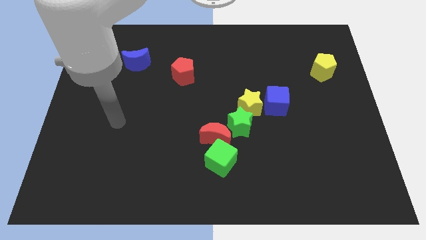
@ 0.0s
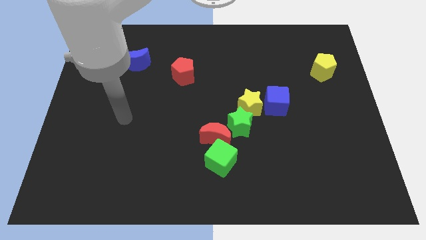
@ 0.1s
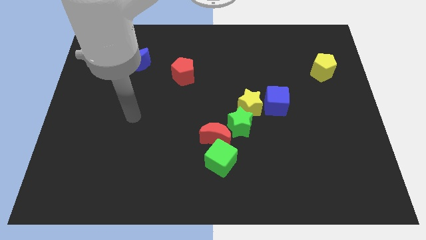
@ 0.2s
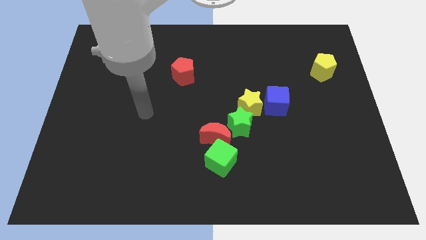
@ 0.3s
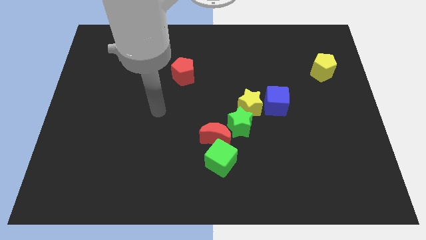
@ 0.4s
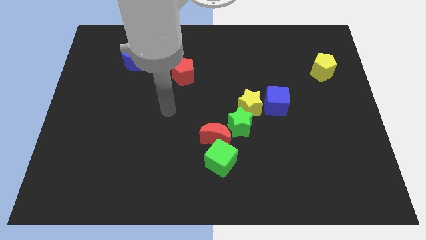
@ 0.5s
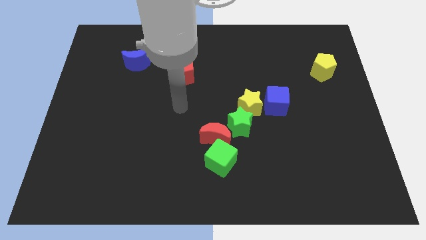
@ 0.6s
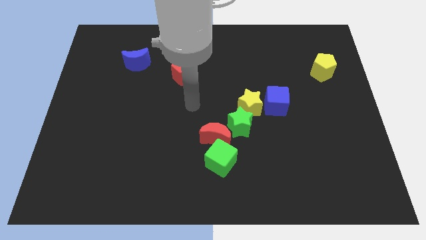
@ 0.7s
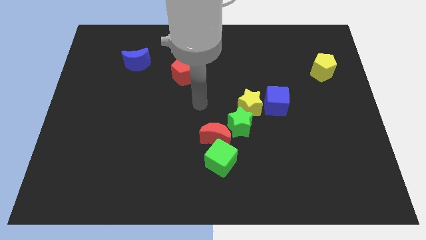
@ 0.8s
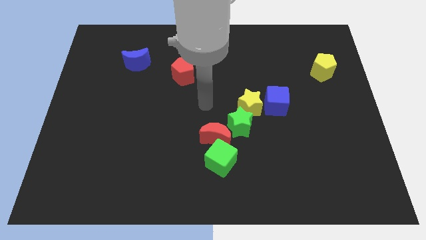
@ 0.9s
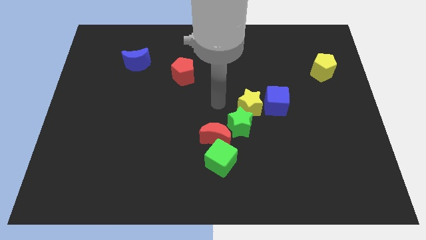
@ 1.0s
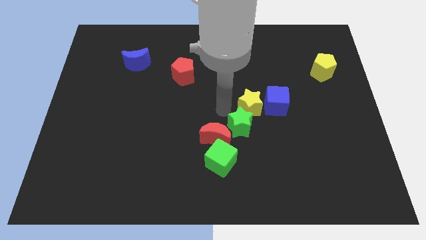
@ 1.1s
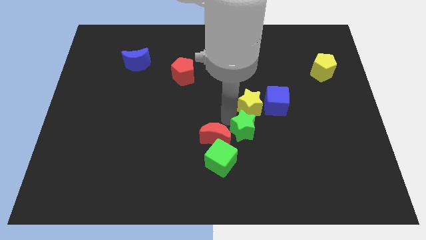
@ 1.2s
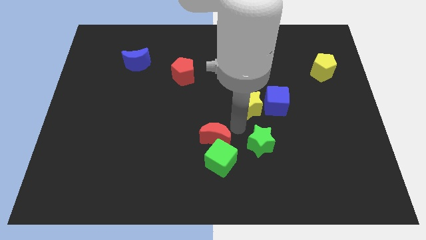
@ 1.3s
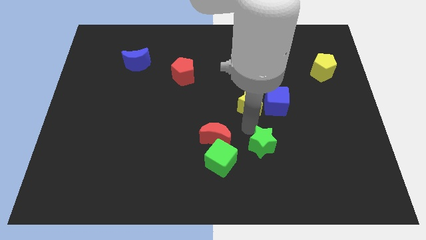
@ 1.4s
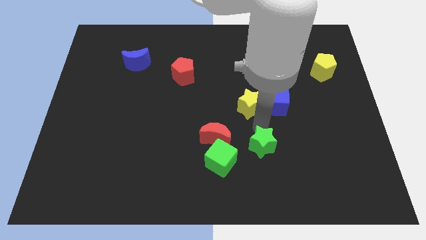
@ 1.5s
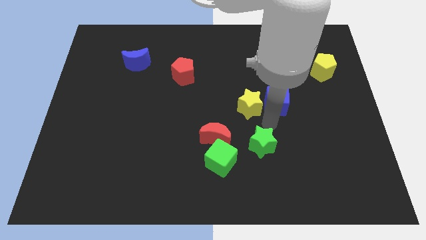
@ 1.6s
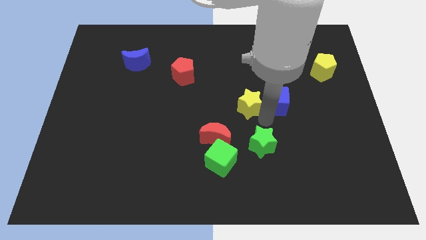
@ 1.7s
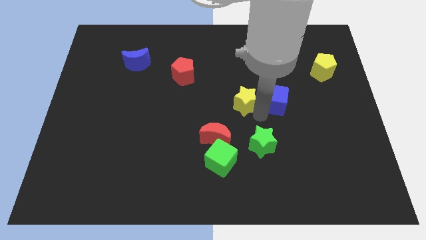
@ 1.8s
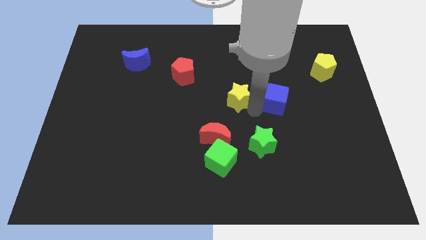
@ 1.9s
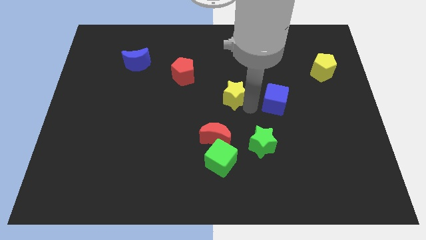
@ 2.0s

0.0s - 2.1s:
pull the yellow star apart from the green star and blue cube

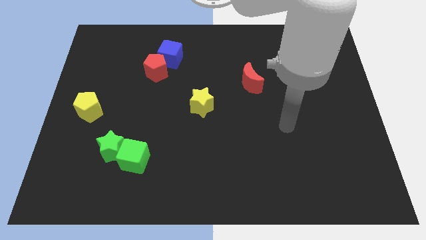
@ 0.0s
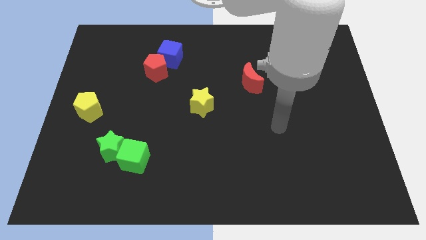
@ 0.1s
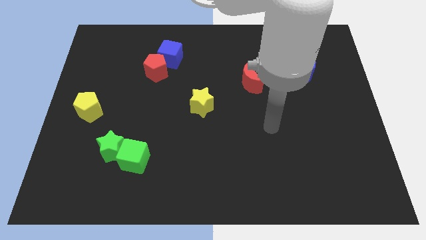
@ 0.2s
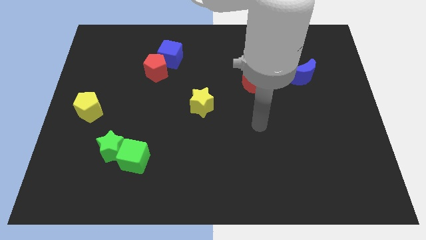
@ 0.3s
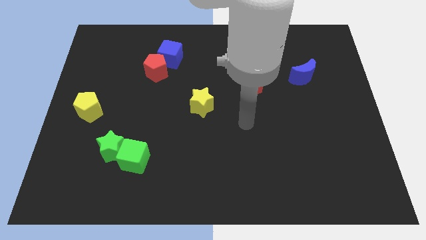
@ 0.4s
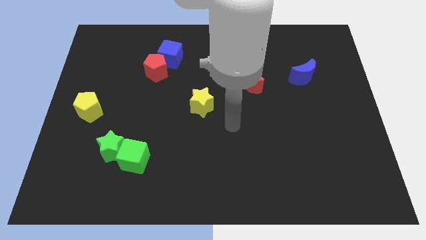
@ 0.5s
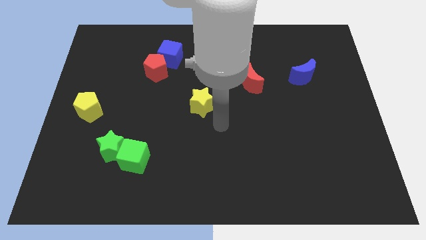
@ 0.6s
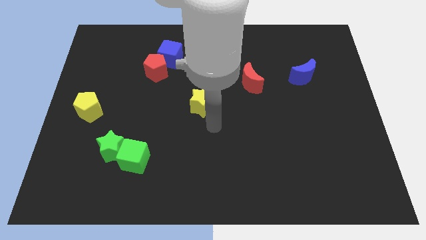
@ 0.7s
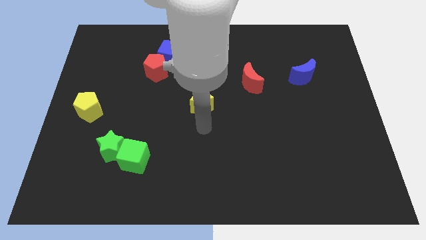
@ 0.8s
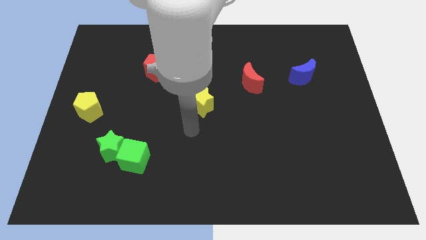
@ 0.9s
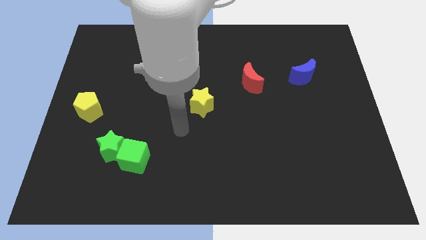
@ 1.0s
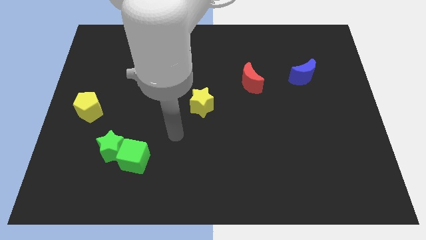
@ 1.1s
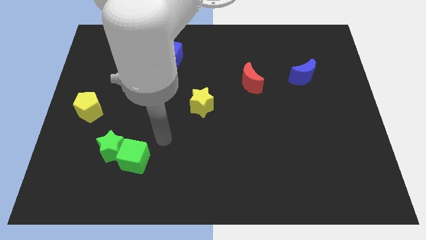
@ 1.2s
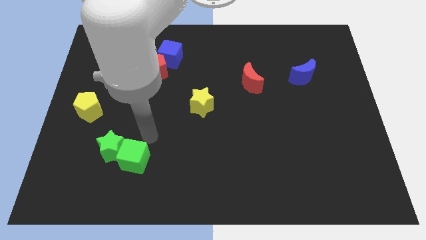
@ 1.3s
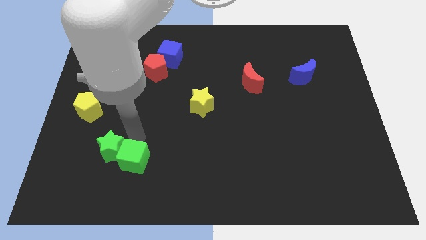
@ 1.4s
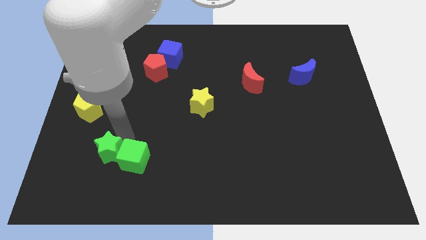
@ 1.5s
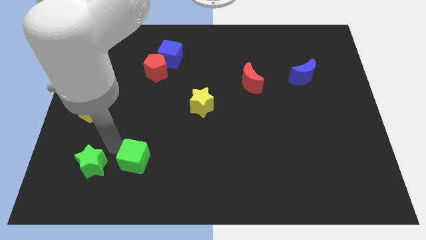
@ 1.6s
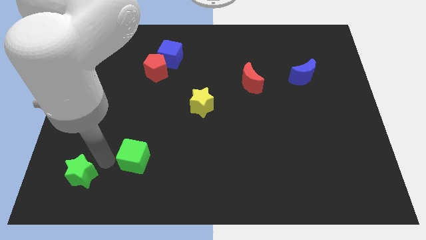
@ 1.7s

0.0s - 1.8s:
move the green cube away from the green star

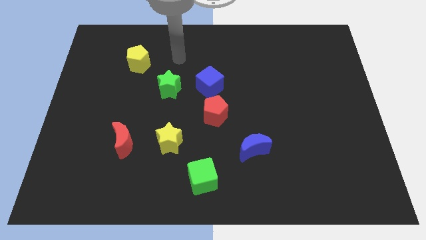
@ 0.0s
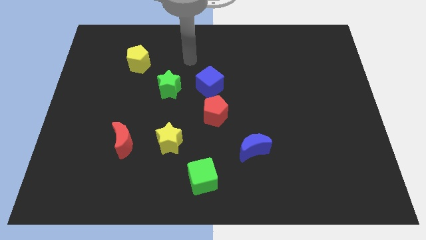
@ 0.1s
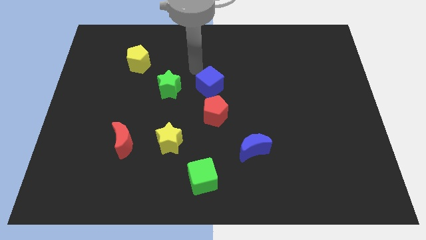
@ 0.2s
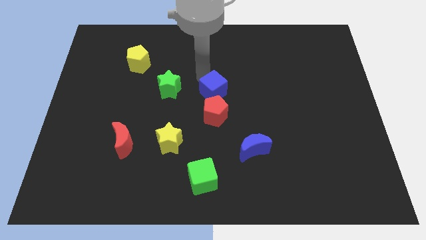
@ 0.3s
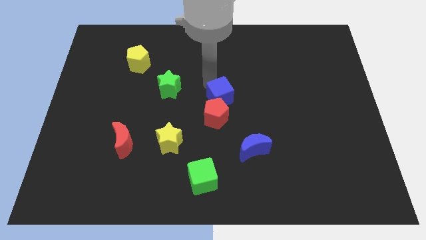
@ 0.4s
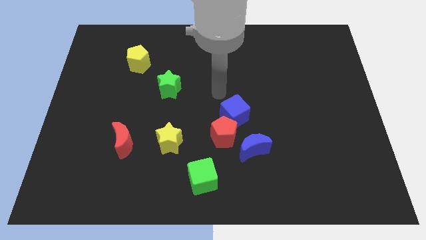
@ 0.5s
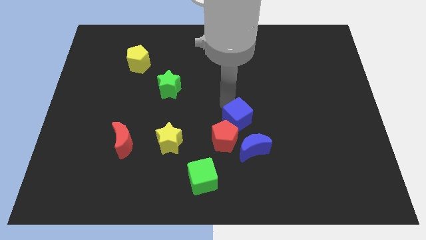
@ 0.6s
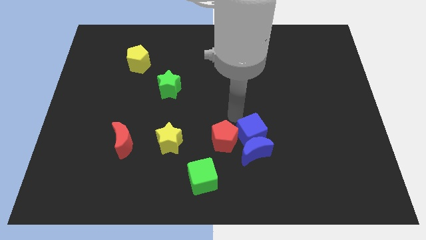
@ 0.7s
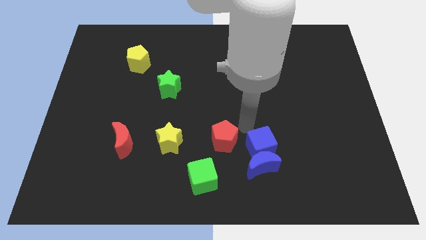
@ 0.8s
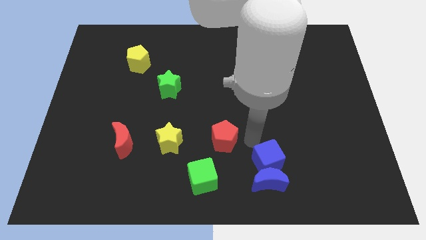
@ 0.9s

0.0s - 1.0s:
separate the red pentagon from the blue cube

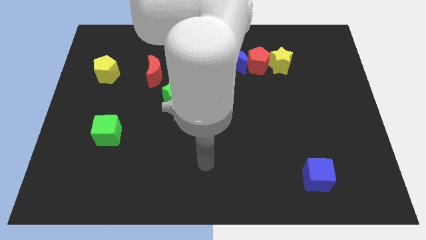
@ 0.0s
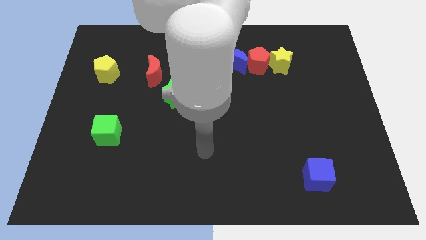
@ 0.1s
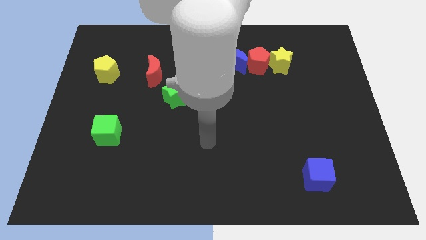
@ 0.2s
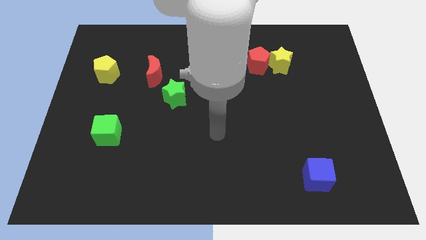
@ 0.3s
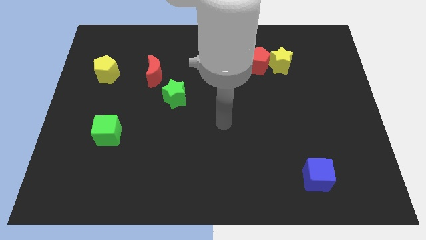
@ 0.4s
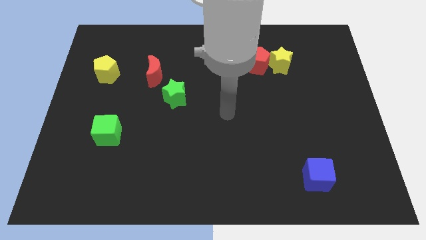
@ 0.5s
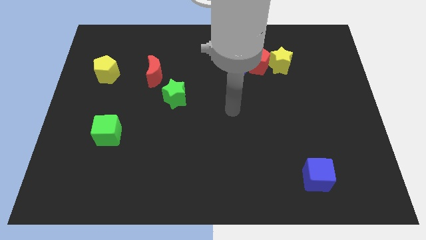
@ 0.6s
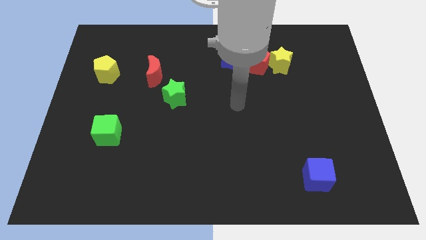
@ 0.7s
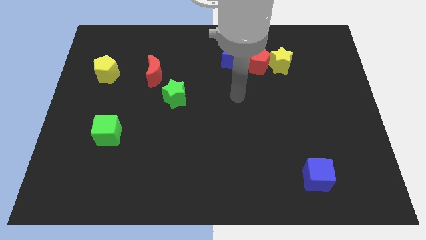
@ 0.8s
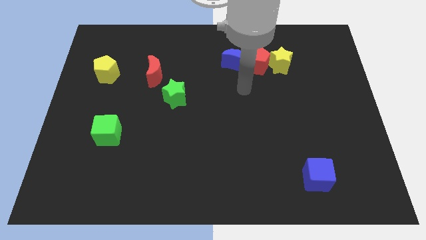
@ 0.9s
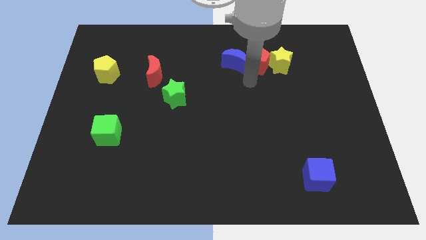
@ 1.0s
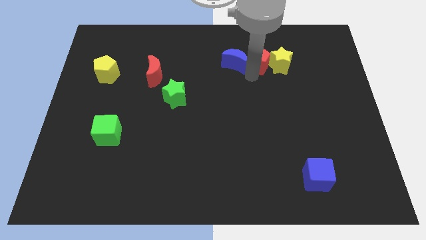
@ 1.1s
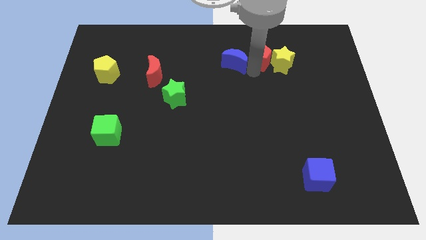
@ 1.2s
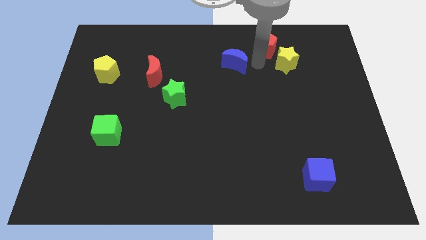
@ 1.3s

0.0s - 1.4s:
move the blue moon away from the red pentagon

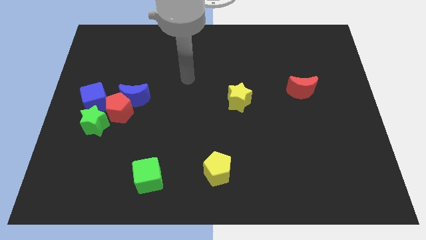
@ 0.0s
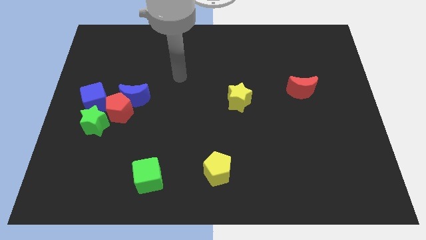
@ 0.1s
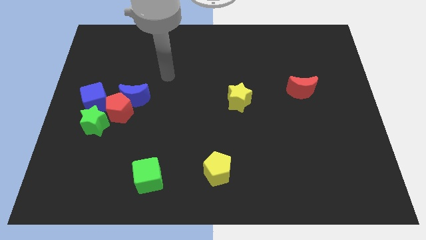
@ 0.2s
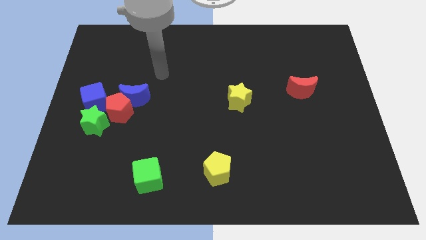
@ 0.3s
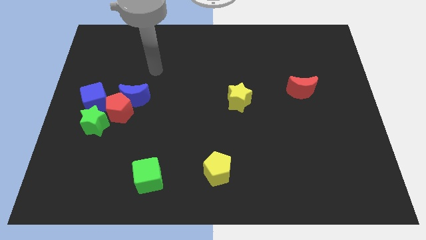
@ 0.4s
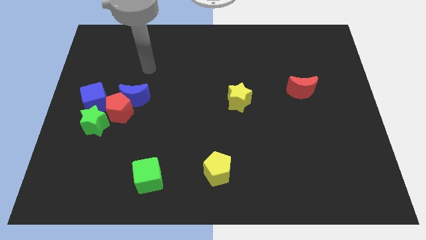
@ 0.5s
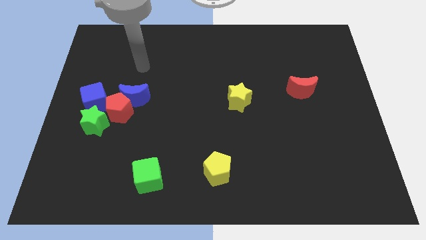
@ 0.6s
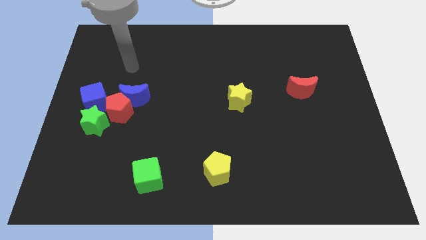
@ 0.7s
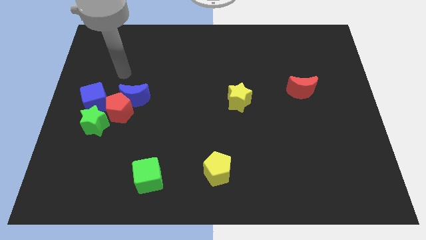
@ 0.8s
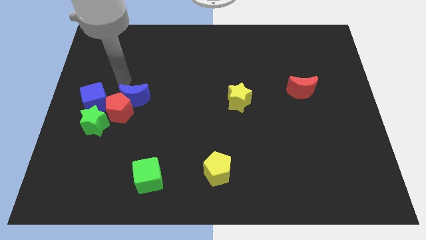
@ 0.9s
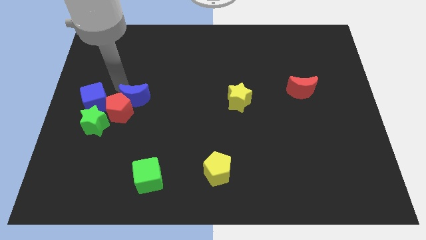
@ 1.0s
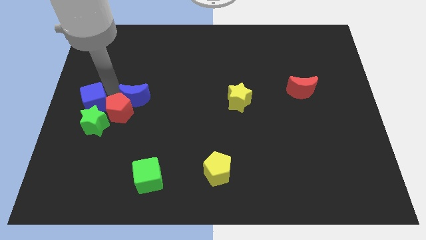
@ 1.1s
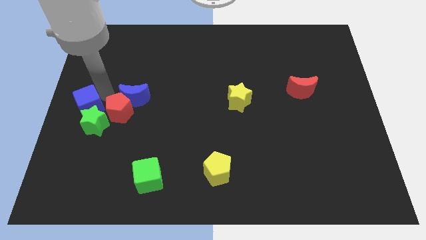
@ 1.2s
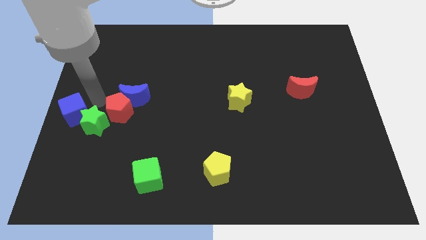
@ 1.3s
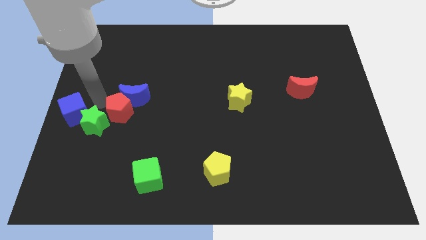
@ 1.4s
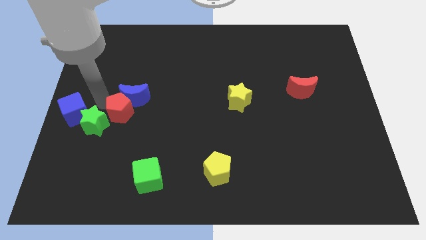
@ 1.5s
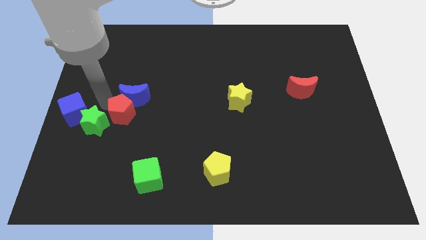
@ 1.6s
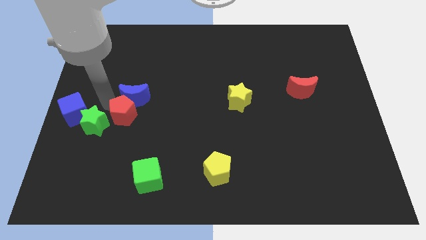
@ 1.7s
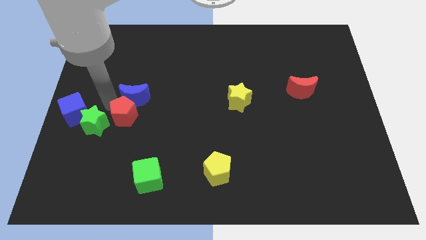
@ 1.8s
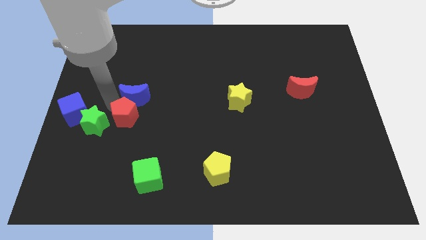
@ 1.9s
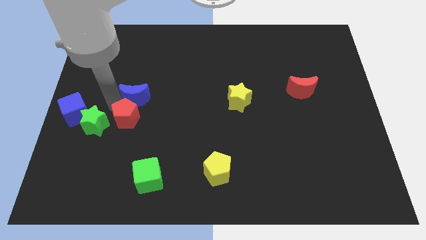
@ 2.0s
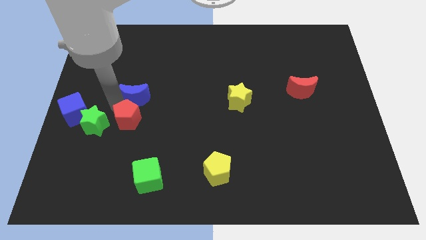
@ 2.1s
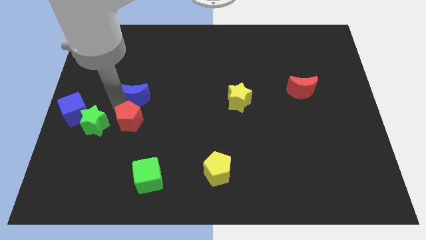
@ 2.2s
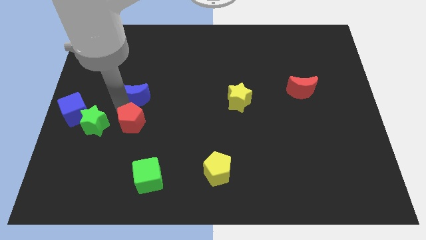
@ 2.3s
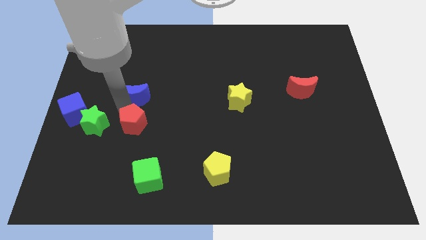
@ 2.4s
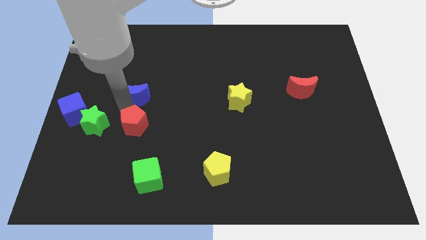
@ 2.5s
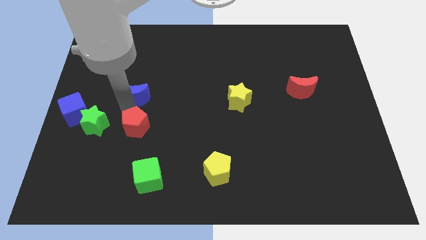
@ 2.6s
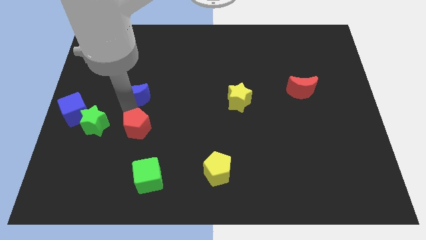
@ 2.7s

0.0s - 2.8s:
separate the red pentagon from the clump
